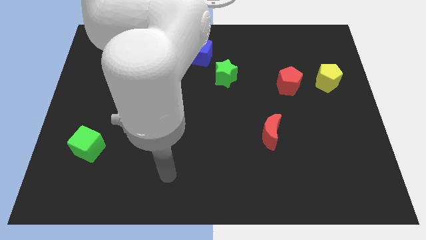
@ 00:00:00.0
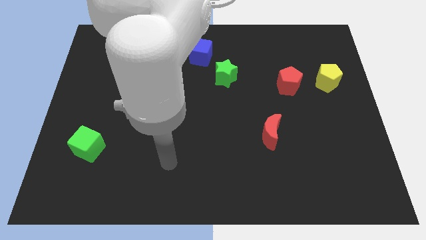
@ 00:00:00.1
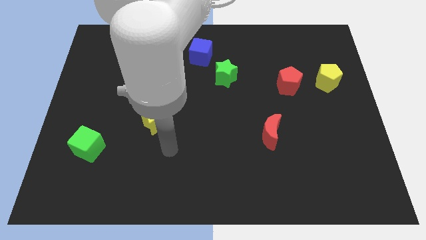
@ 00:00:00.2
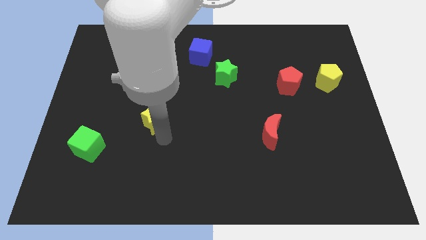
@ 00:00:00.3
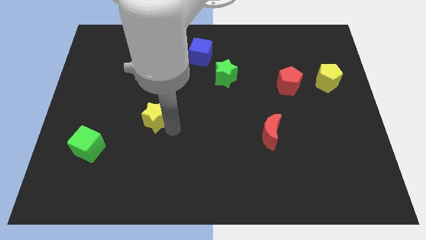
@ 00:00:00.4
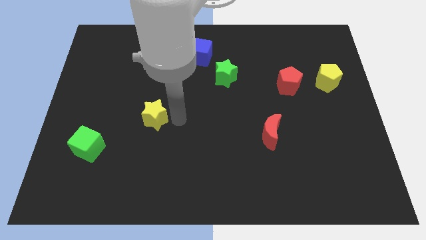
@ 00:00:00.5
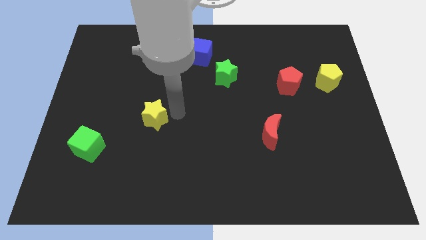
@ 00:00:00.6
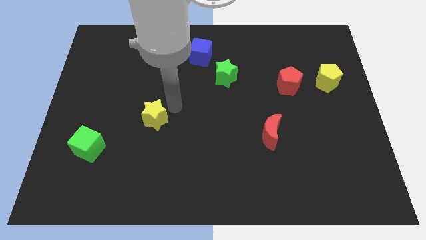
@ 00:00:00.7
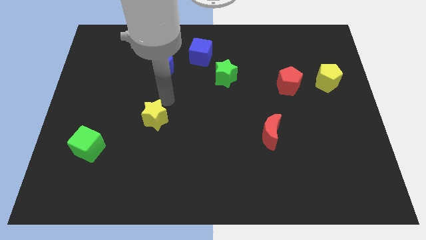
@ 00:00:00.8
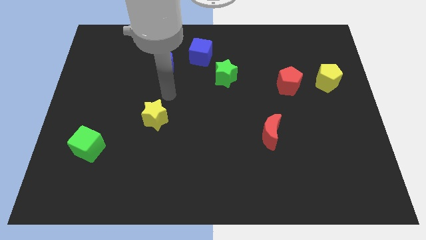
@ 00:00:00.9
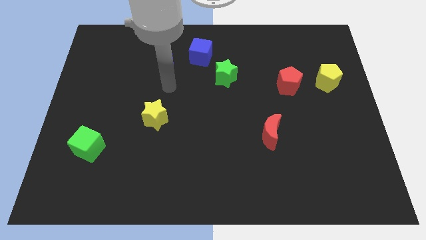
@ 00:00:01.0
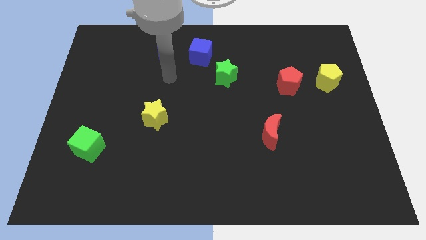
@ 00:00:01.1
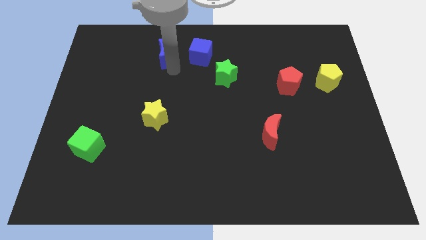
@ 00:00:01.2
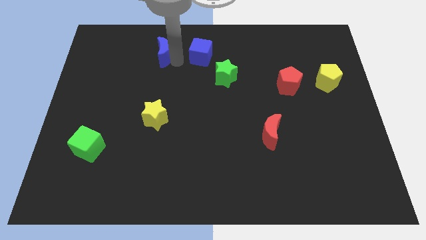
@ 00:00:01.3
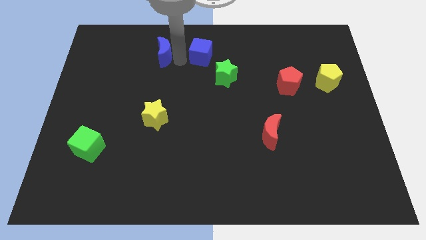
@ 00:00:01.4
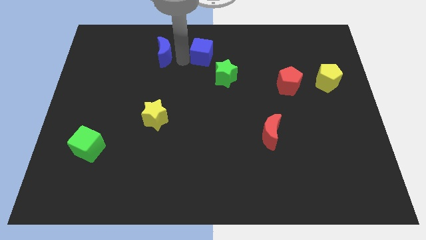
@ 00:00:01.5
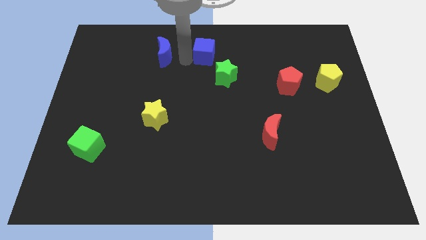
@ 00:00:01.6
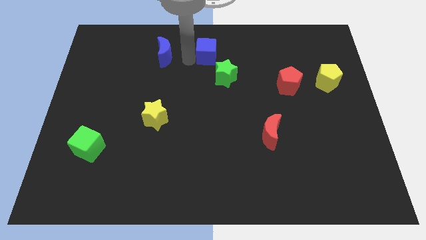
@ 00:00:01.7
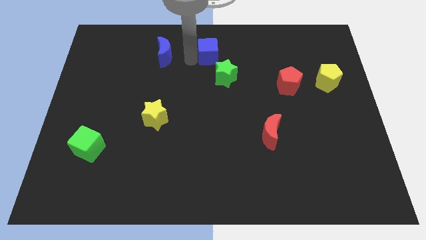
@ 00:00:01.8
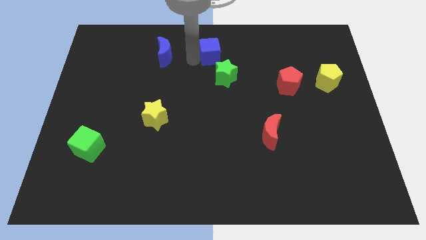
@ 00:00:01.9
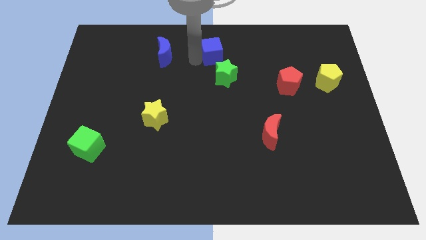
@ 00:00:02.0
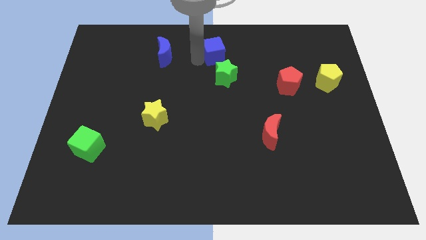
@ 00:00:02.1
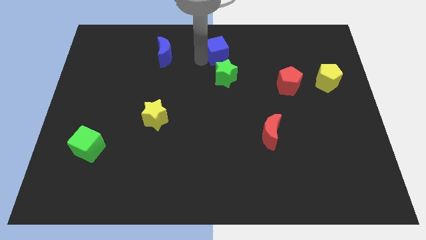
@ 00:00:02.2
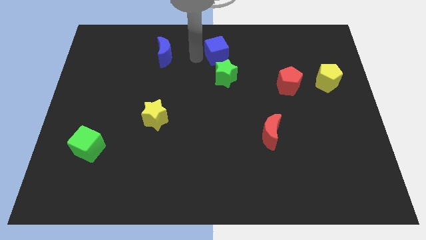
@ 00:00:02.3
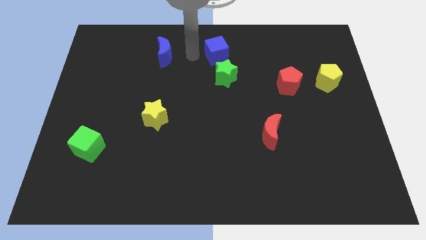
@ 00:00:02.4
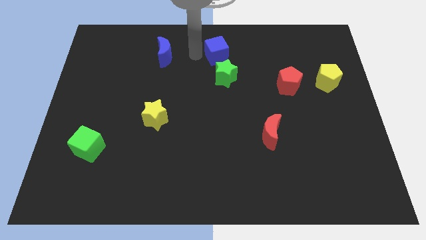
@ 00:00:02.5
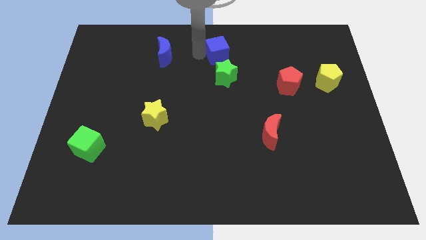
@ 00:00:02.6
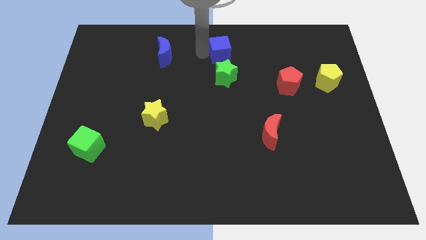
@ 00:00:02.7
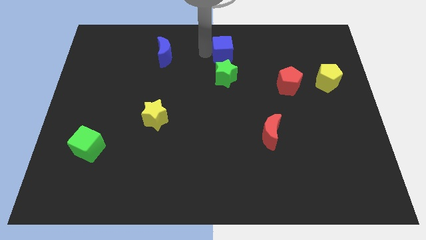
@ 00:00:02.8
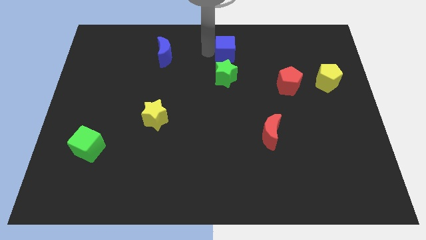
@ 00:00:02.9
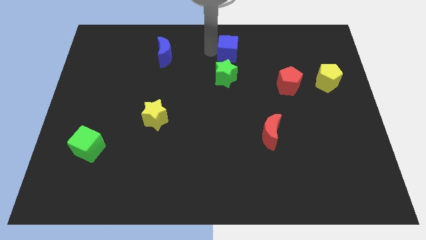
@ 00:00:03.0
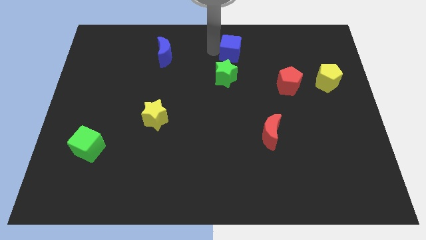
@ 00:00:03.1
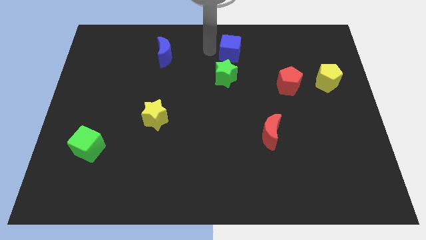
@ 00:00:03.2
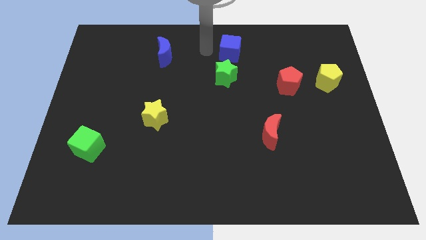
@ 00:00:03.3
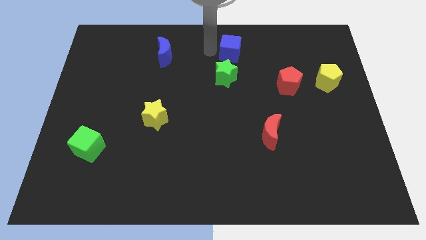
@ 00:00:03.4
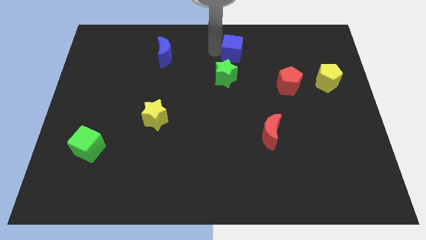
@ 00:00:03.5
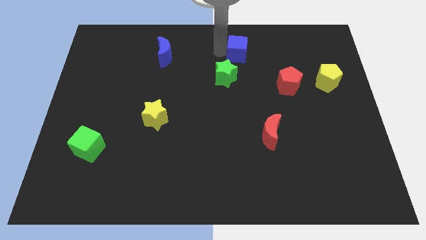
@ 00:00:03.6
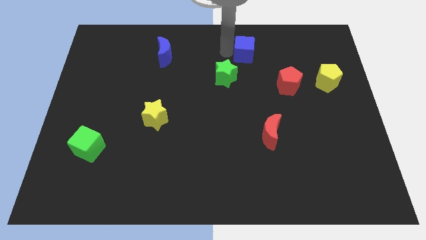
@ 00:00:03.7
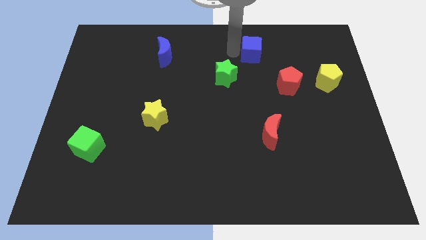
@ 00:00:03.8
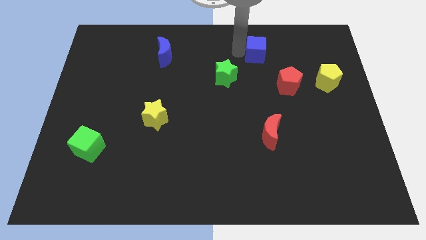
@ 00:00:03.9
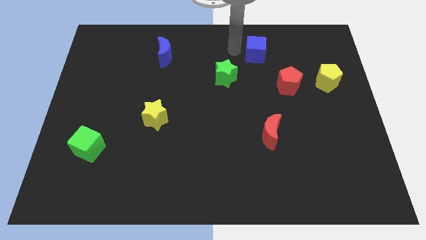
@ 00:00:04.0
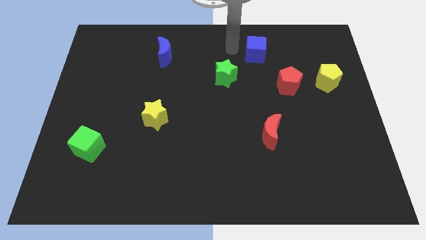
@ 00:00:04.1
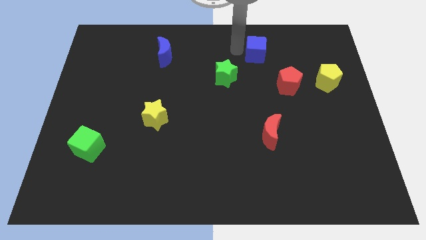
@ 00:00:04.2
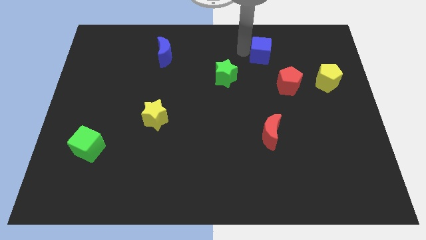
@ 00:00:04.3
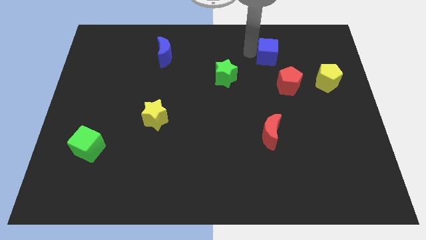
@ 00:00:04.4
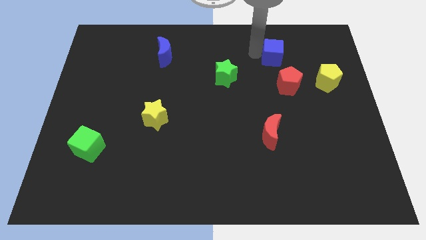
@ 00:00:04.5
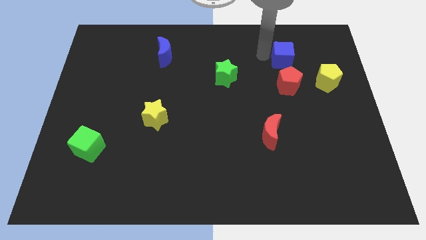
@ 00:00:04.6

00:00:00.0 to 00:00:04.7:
push the blue cube right

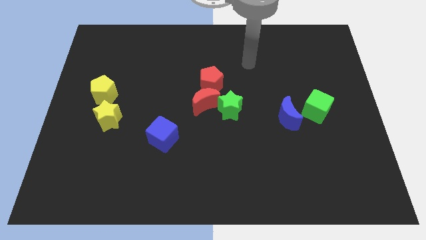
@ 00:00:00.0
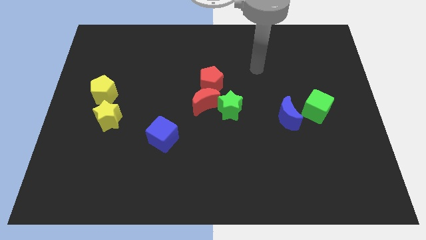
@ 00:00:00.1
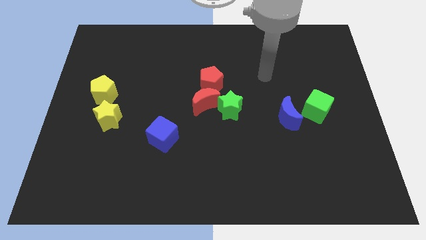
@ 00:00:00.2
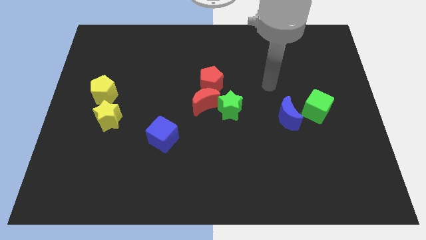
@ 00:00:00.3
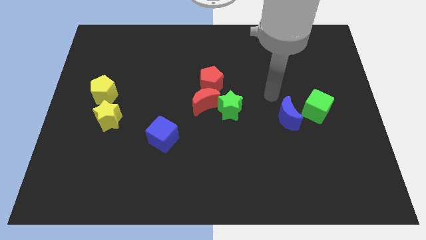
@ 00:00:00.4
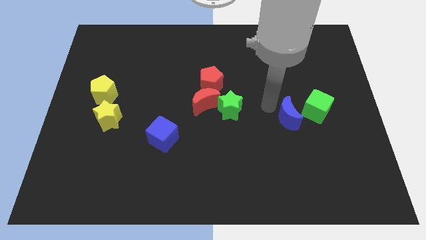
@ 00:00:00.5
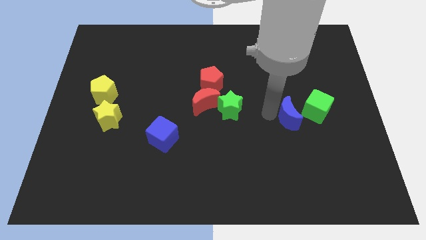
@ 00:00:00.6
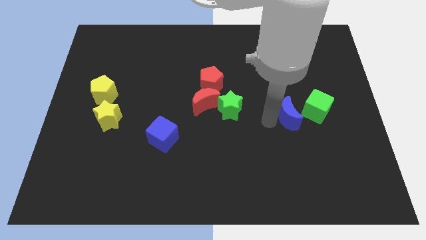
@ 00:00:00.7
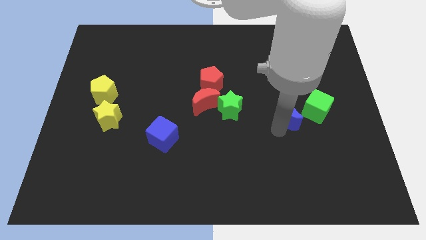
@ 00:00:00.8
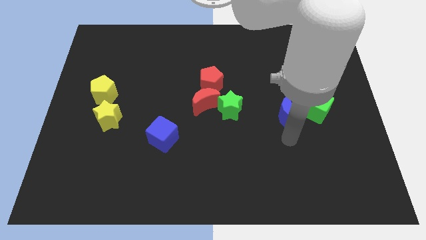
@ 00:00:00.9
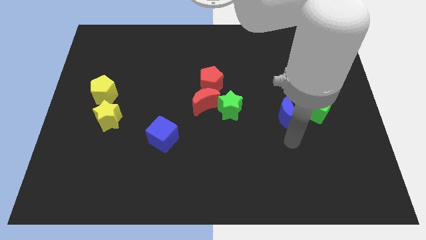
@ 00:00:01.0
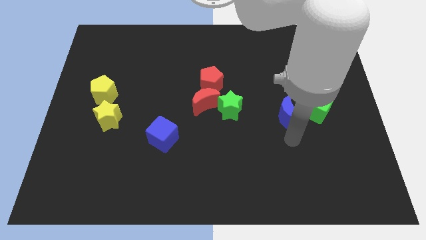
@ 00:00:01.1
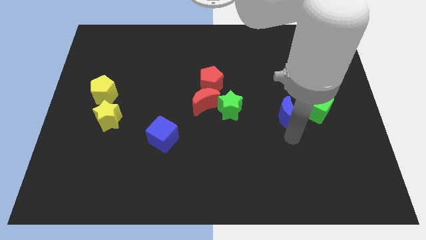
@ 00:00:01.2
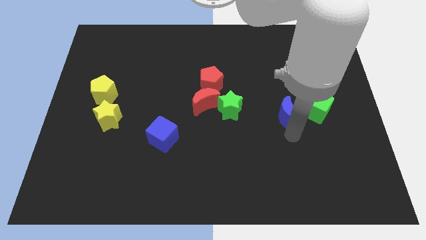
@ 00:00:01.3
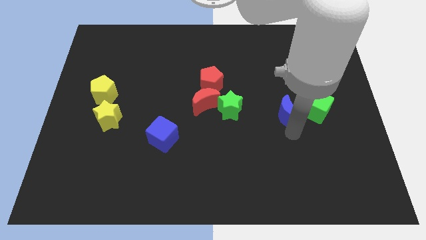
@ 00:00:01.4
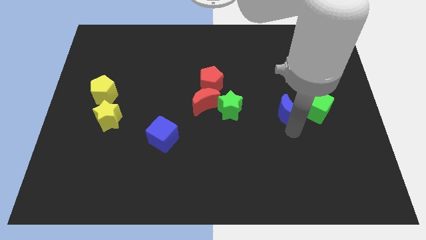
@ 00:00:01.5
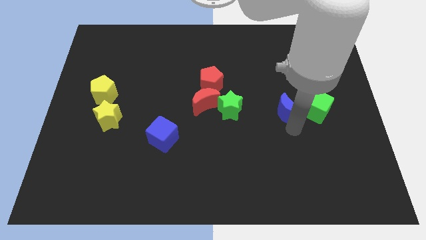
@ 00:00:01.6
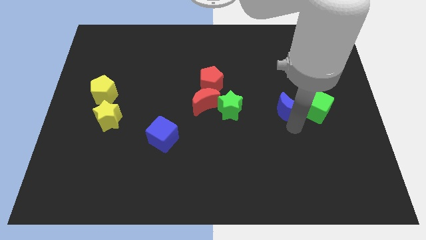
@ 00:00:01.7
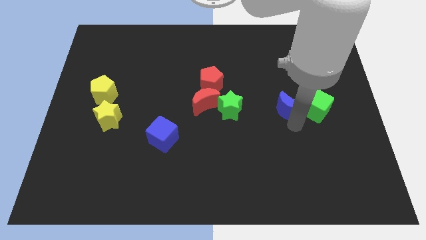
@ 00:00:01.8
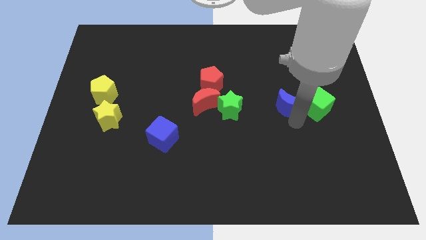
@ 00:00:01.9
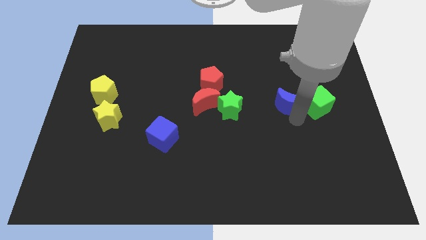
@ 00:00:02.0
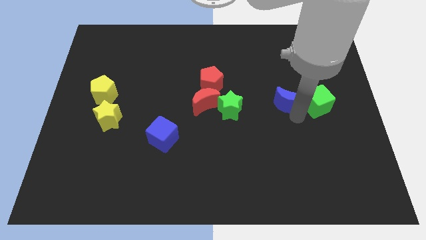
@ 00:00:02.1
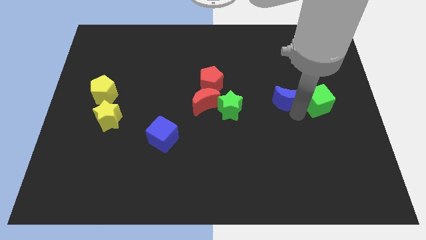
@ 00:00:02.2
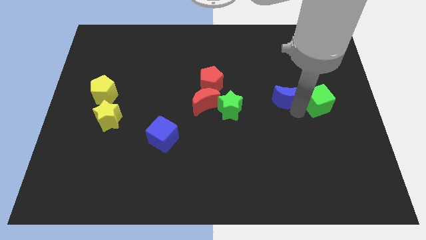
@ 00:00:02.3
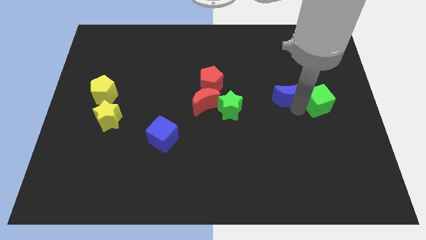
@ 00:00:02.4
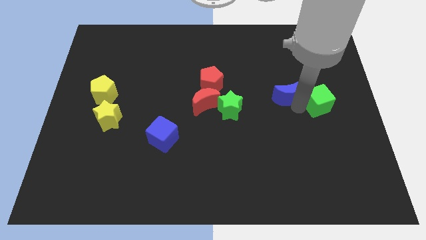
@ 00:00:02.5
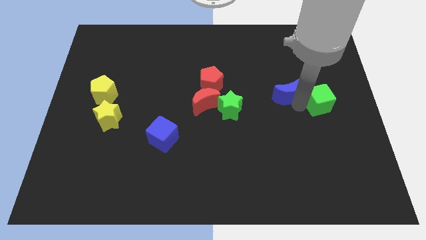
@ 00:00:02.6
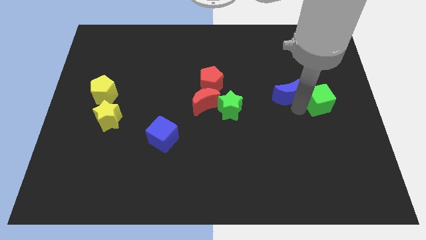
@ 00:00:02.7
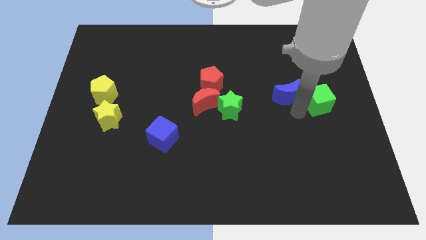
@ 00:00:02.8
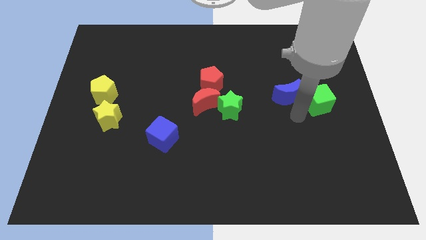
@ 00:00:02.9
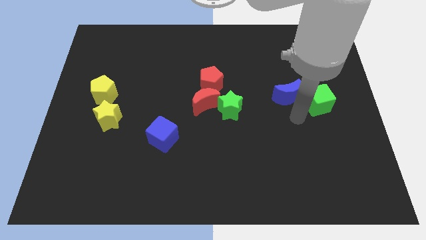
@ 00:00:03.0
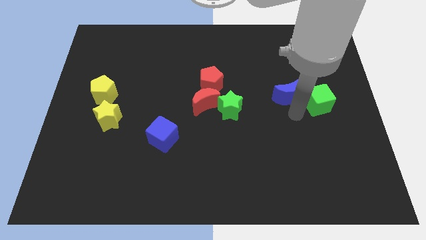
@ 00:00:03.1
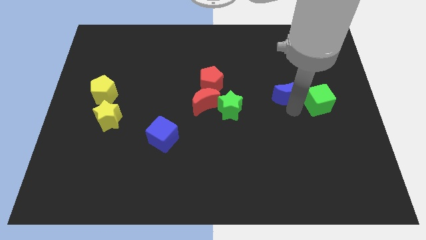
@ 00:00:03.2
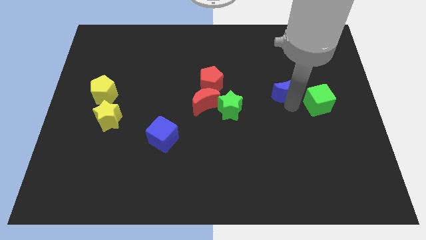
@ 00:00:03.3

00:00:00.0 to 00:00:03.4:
slightly push the blue moon upwards
